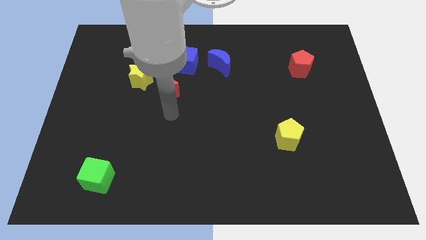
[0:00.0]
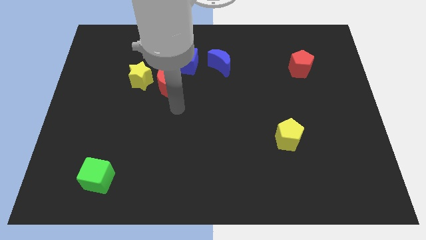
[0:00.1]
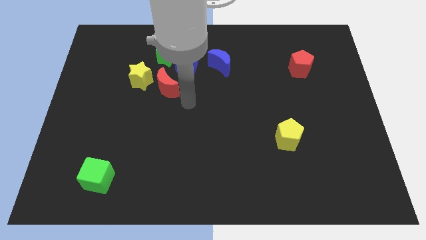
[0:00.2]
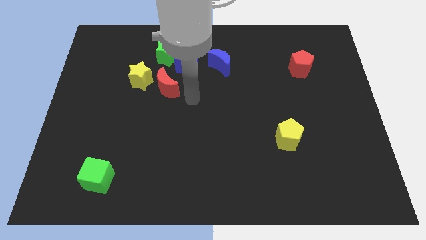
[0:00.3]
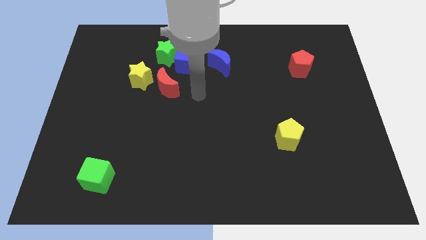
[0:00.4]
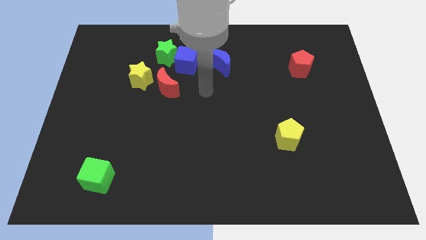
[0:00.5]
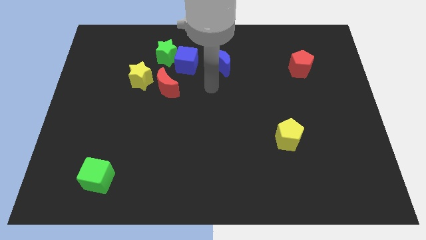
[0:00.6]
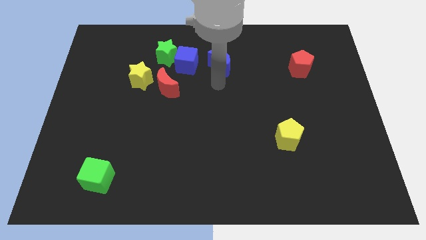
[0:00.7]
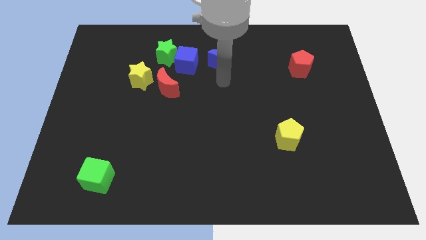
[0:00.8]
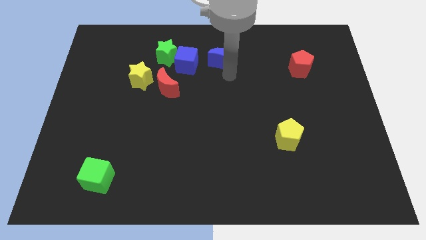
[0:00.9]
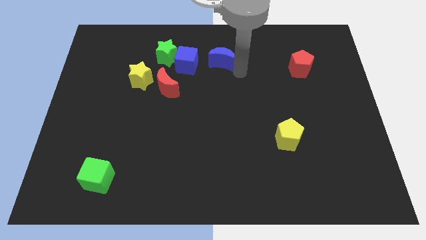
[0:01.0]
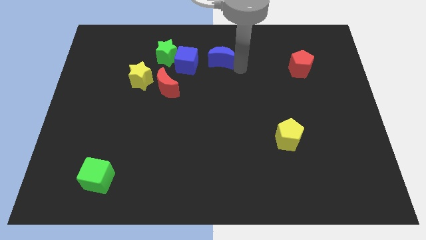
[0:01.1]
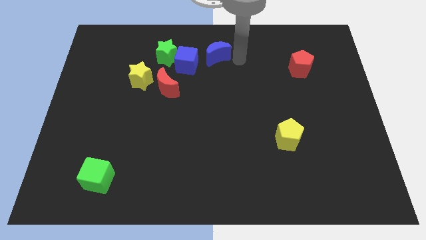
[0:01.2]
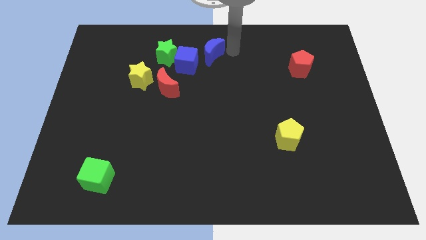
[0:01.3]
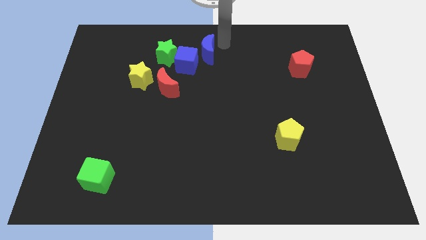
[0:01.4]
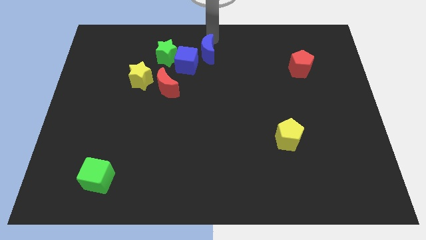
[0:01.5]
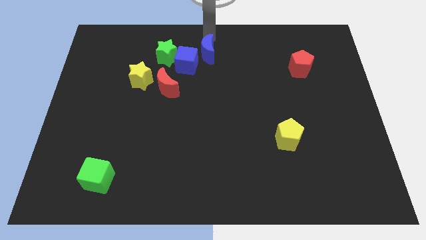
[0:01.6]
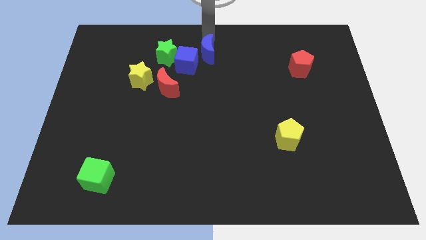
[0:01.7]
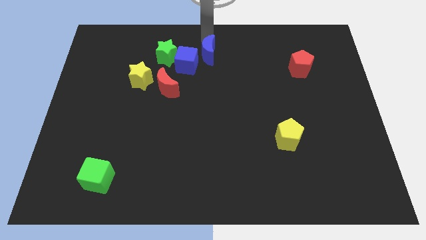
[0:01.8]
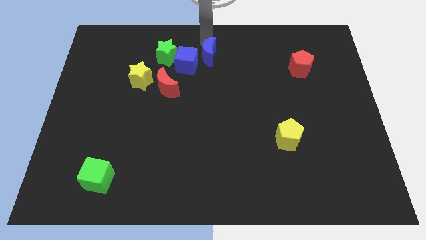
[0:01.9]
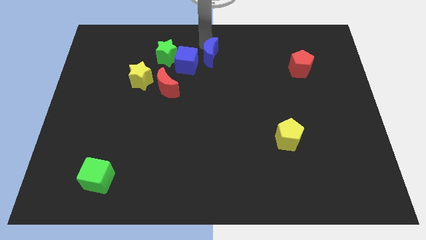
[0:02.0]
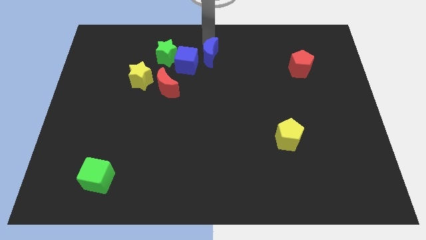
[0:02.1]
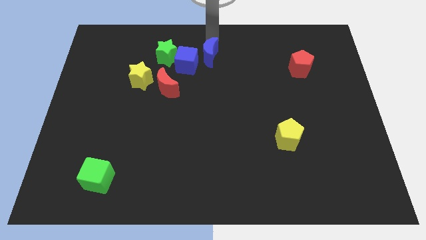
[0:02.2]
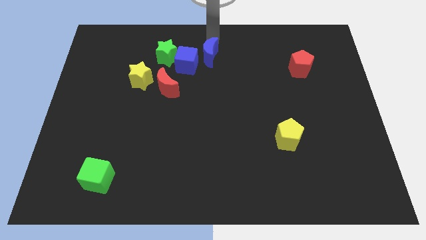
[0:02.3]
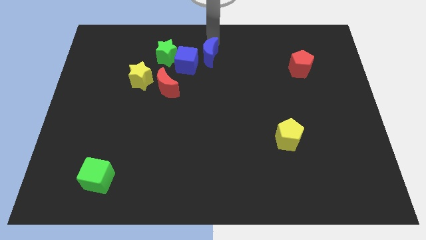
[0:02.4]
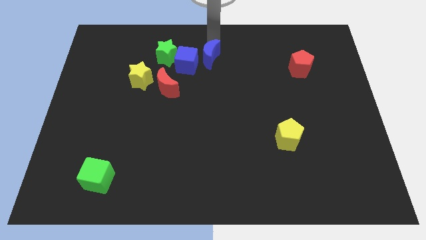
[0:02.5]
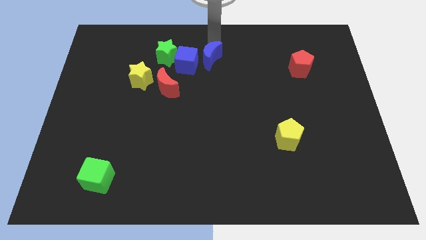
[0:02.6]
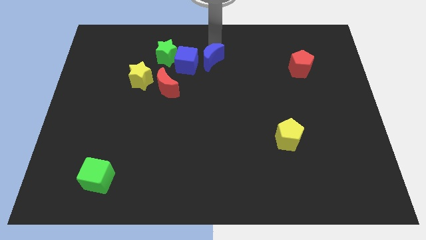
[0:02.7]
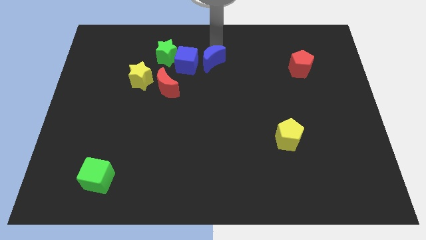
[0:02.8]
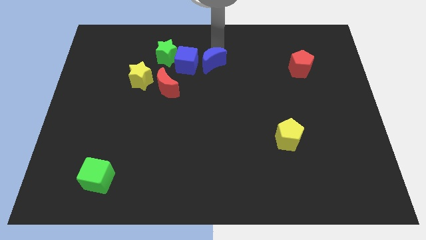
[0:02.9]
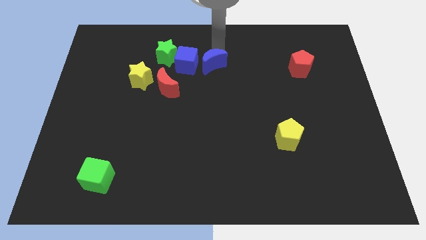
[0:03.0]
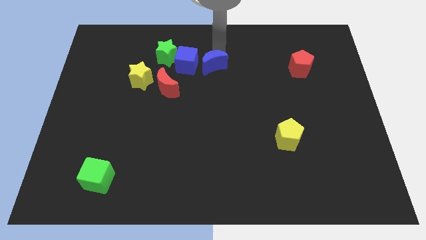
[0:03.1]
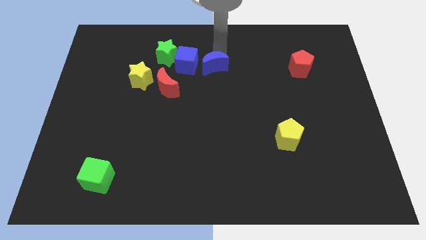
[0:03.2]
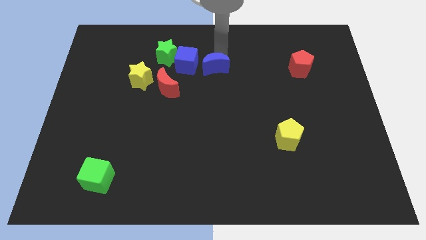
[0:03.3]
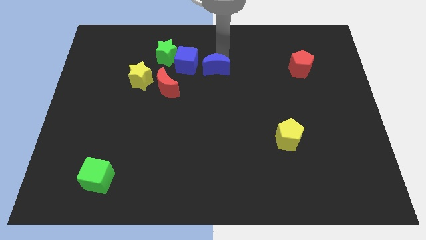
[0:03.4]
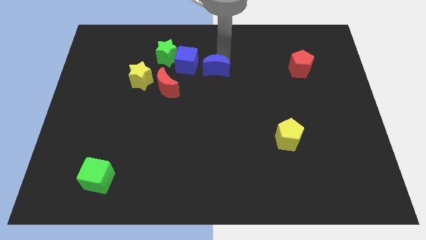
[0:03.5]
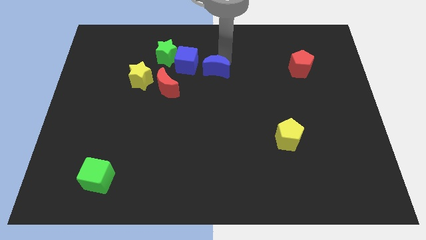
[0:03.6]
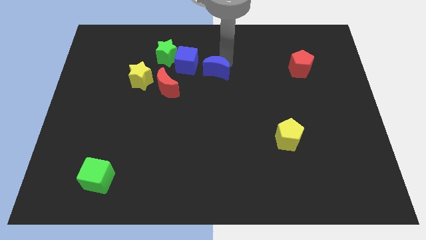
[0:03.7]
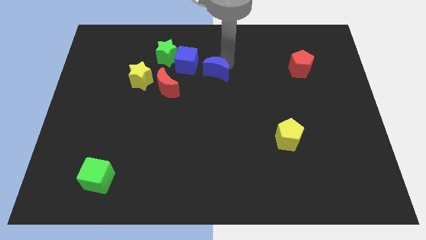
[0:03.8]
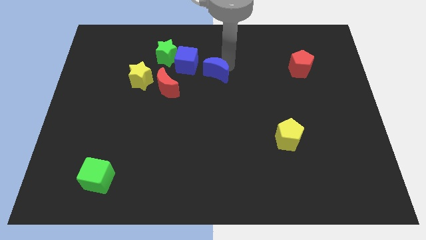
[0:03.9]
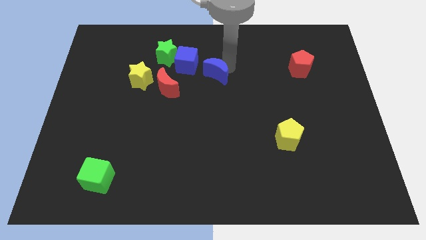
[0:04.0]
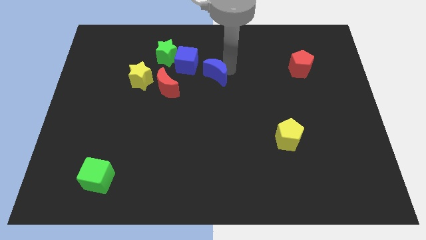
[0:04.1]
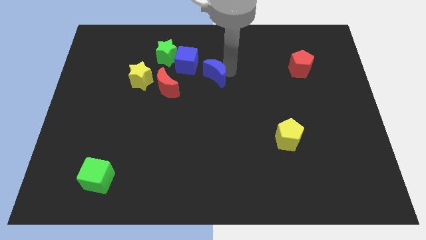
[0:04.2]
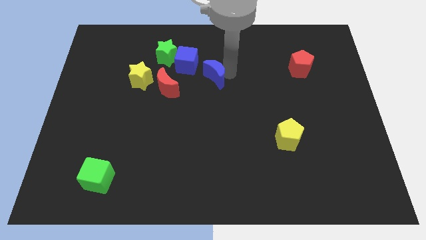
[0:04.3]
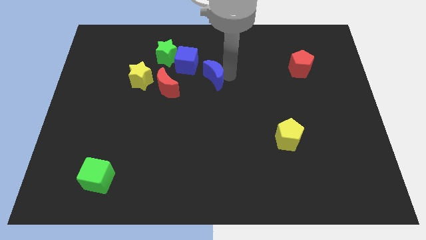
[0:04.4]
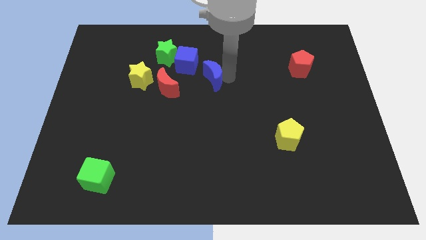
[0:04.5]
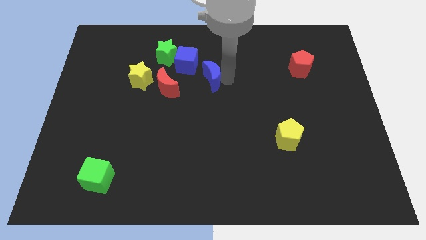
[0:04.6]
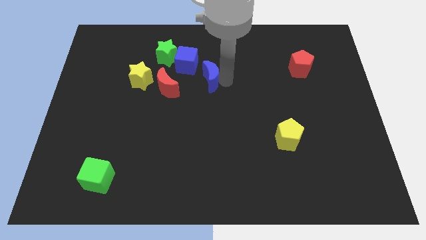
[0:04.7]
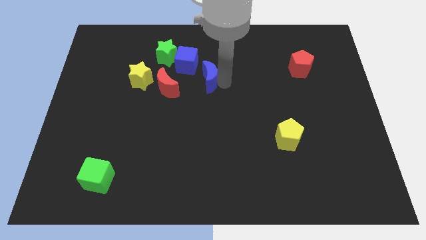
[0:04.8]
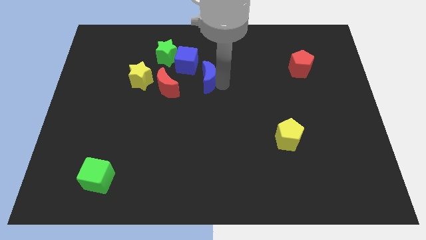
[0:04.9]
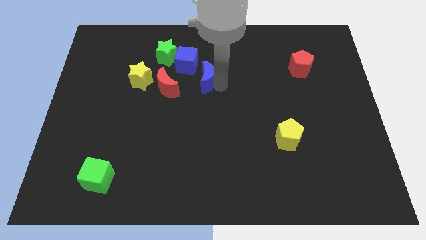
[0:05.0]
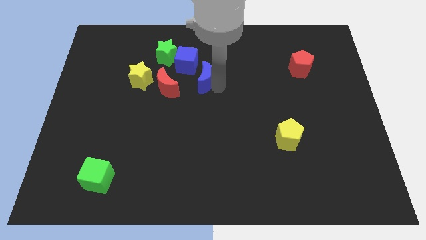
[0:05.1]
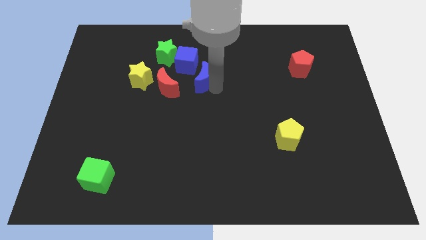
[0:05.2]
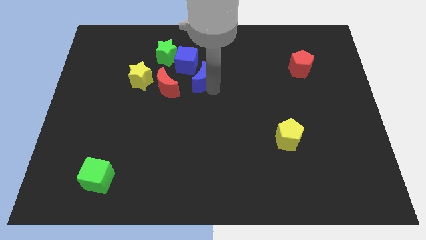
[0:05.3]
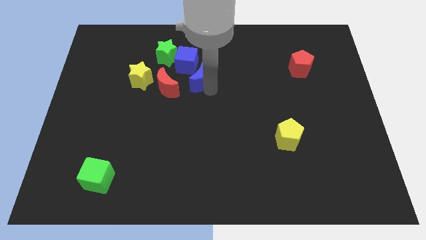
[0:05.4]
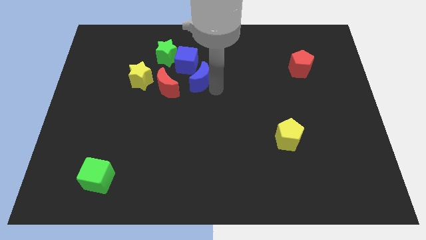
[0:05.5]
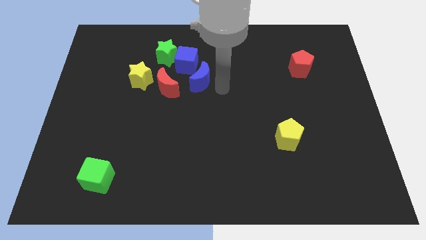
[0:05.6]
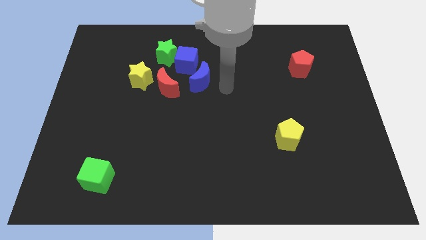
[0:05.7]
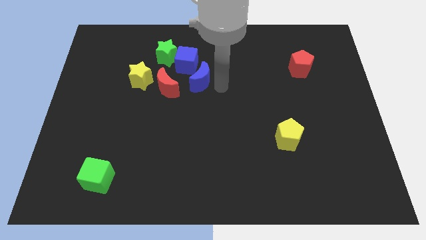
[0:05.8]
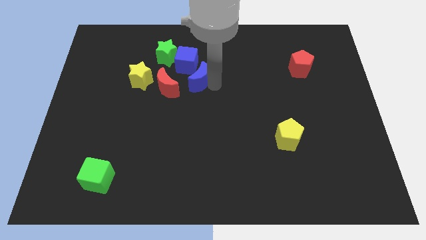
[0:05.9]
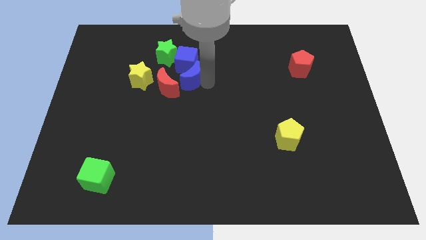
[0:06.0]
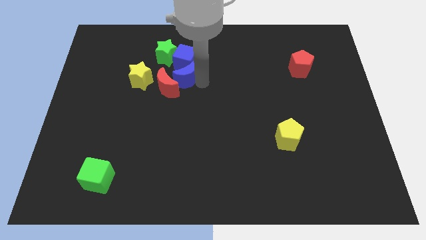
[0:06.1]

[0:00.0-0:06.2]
push the blue moon to the left slightly

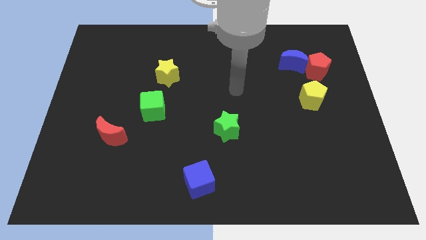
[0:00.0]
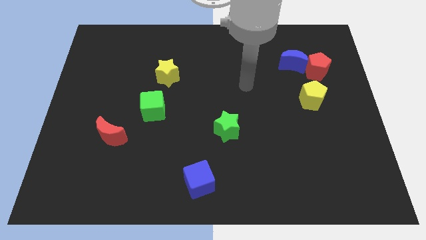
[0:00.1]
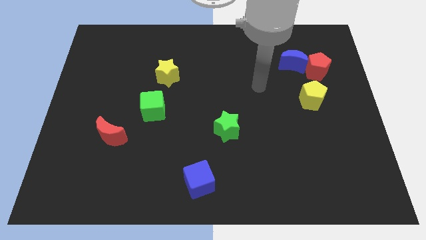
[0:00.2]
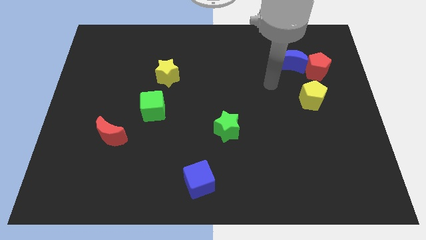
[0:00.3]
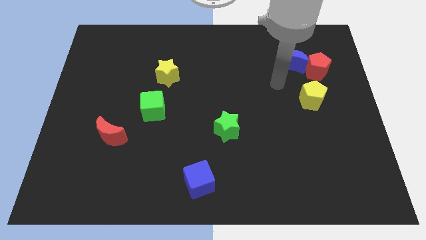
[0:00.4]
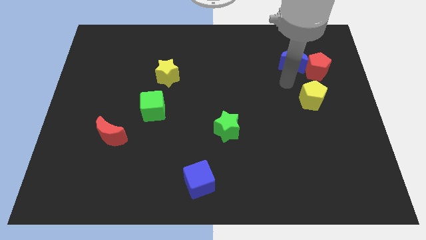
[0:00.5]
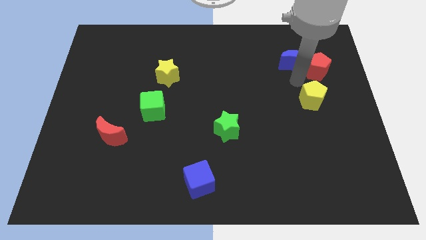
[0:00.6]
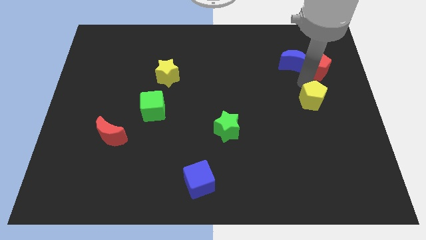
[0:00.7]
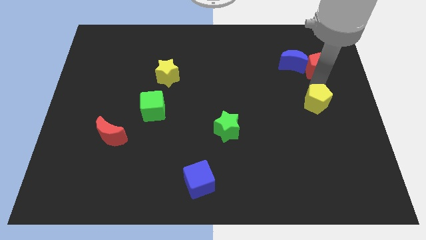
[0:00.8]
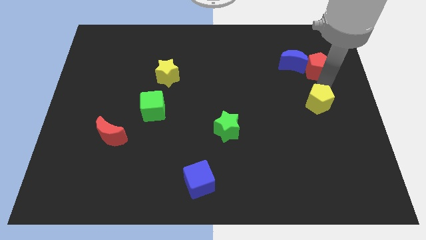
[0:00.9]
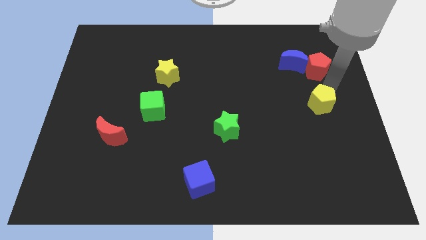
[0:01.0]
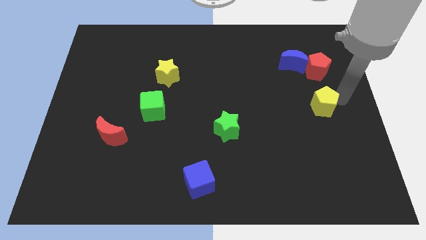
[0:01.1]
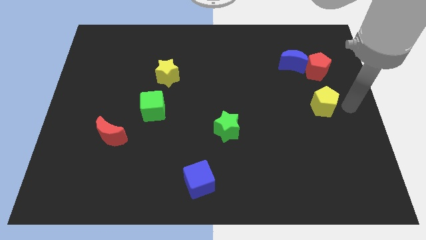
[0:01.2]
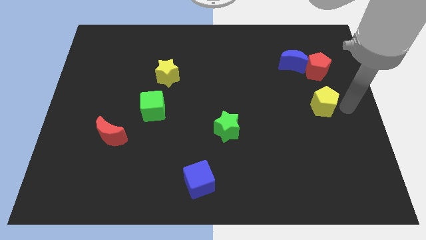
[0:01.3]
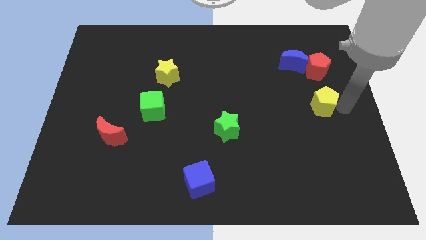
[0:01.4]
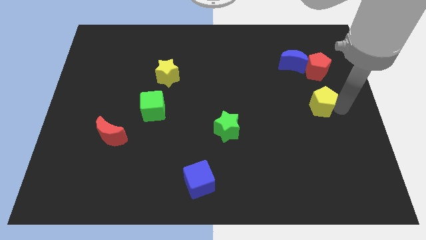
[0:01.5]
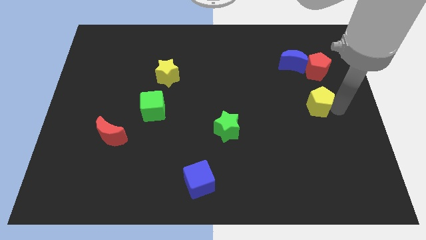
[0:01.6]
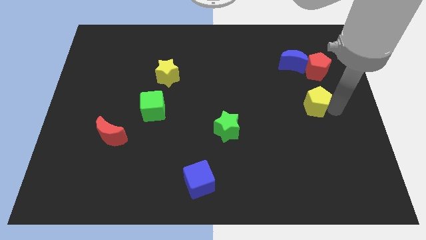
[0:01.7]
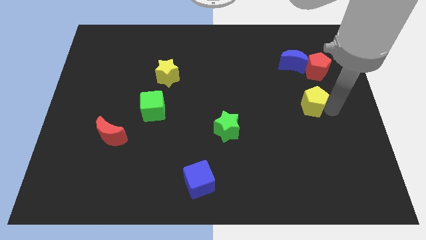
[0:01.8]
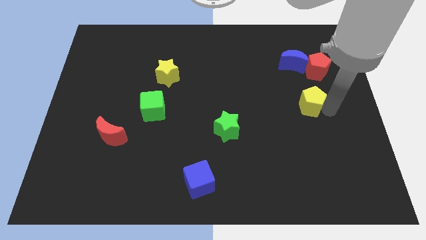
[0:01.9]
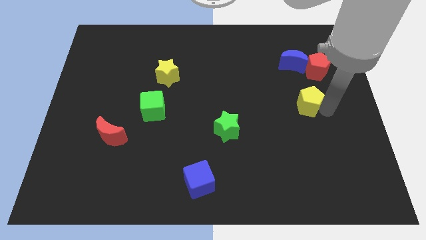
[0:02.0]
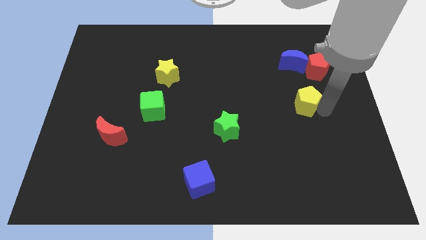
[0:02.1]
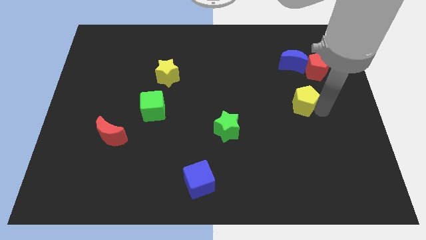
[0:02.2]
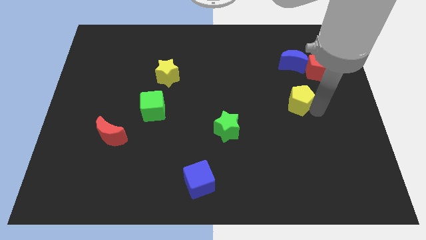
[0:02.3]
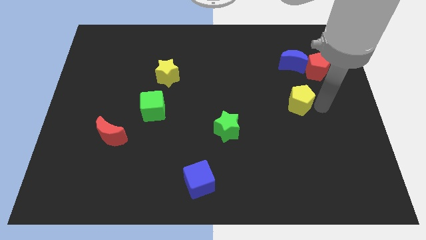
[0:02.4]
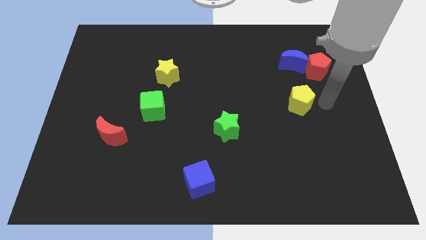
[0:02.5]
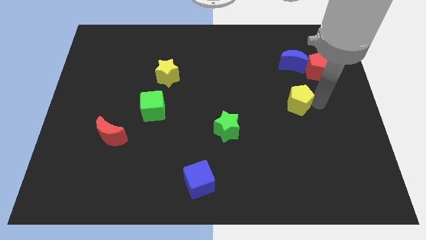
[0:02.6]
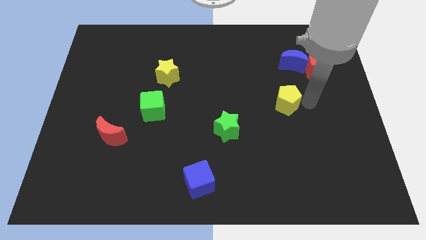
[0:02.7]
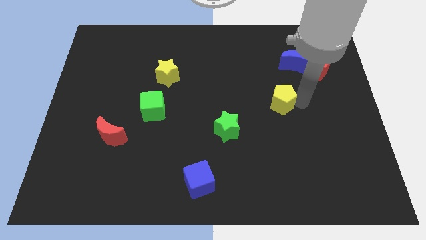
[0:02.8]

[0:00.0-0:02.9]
move the yellow pentagon left a little bit
